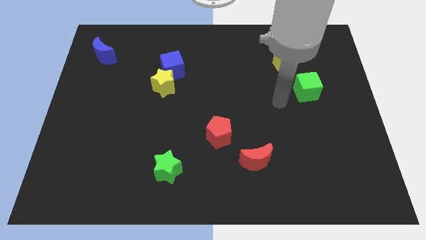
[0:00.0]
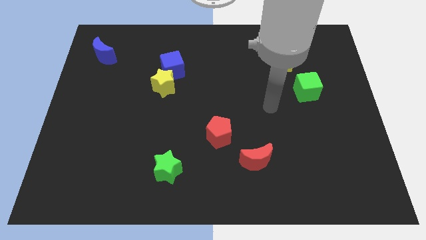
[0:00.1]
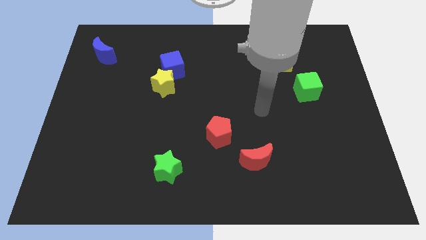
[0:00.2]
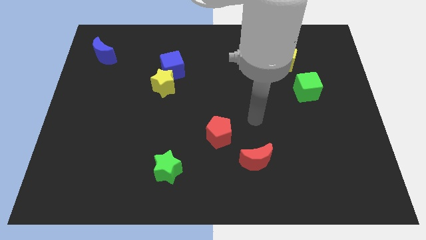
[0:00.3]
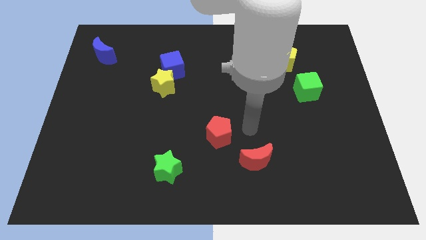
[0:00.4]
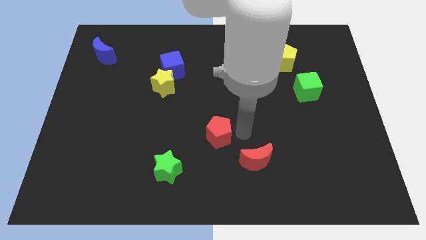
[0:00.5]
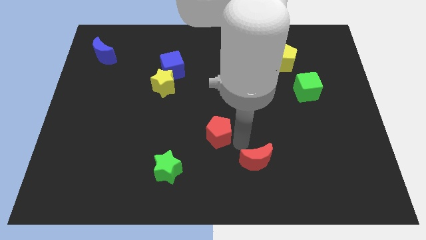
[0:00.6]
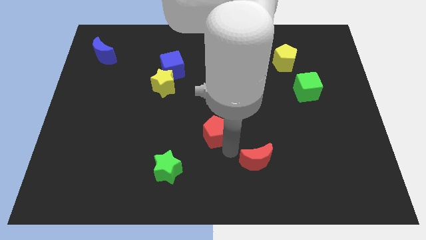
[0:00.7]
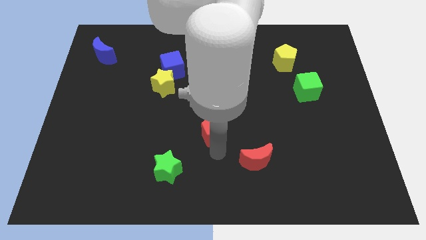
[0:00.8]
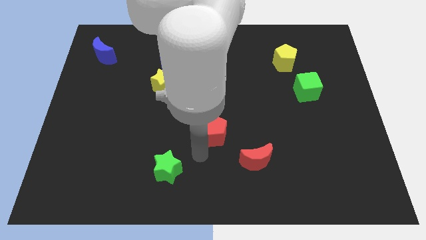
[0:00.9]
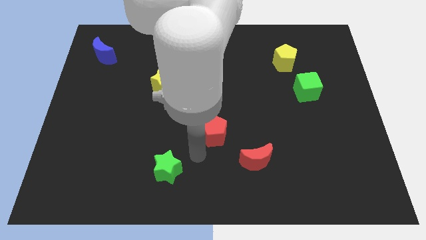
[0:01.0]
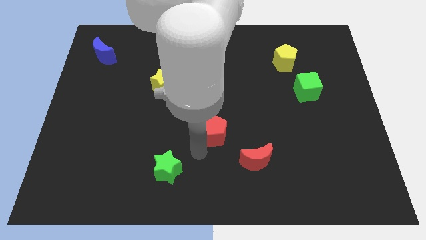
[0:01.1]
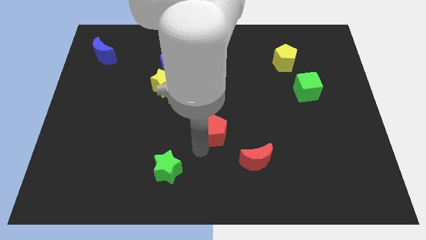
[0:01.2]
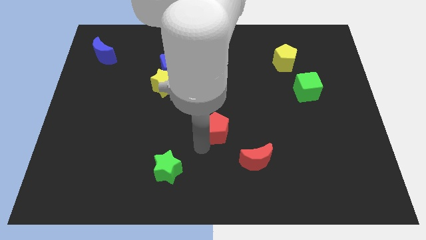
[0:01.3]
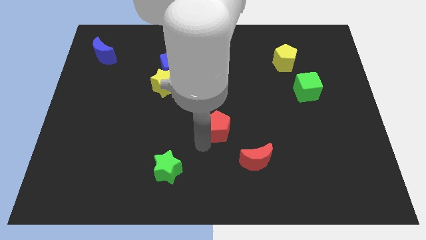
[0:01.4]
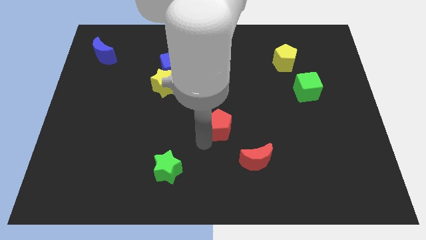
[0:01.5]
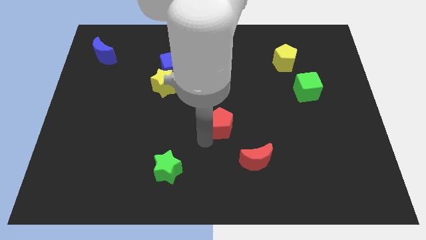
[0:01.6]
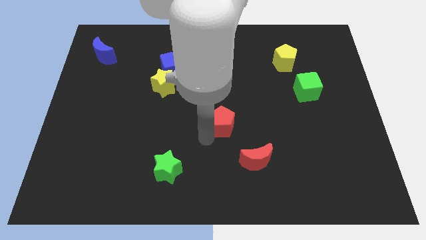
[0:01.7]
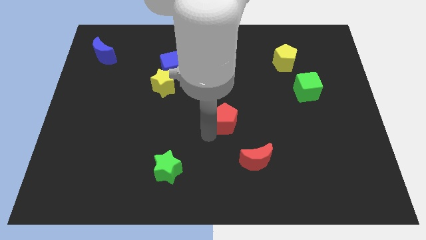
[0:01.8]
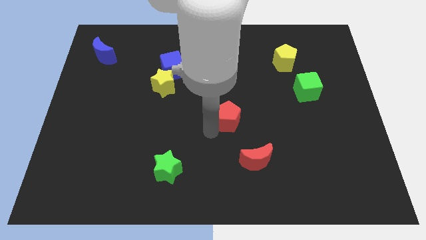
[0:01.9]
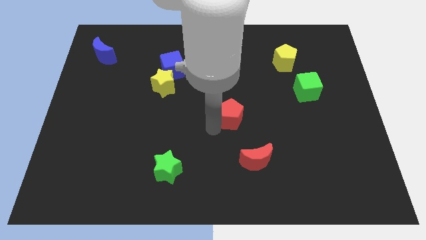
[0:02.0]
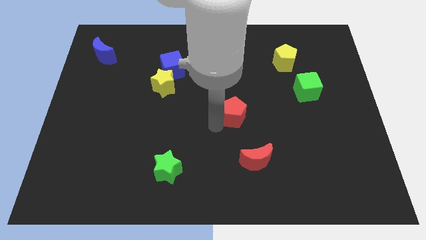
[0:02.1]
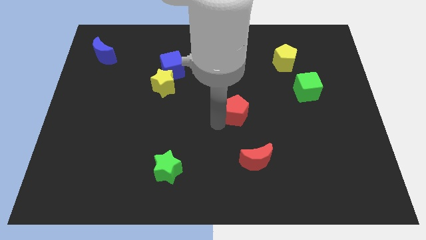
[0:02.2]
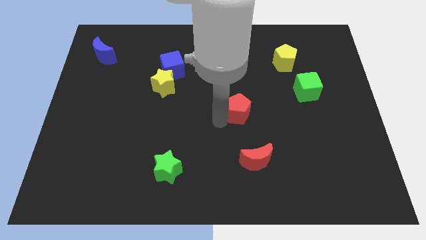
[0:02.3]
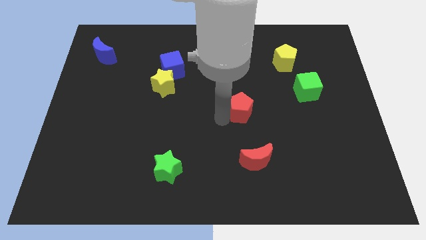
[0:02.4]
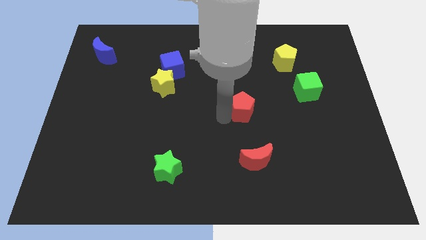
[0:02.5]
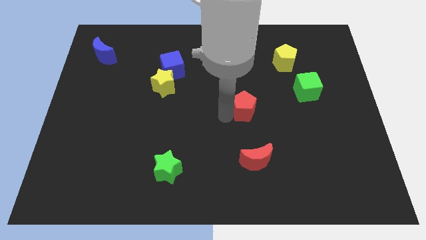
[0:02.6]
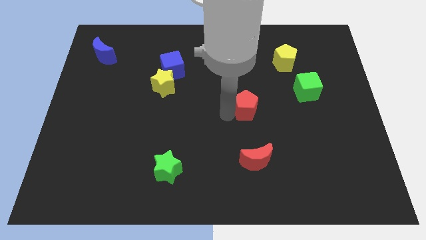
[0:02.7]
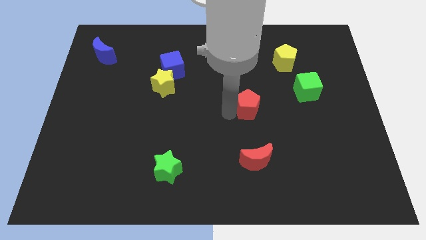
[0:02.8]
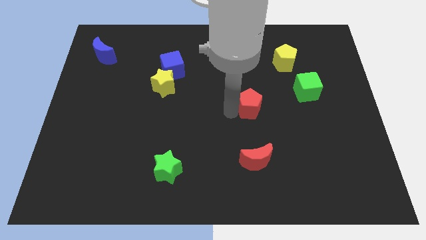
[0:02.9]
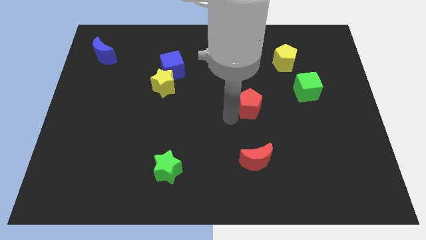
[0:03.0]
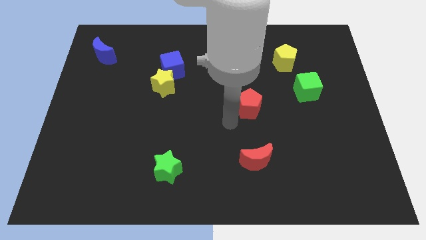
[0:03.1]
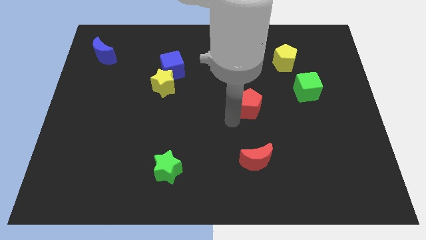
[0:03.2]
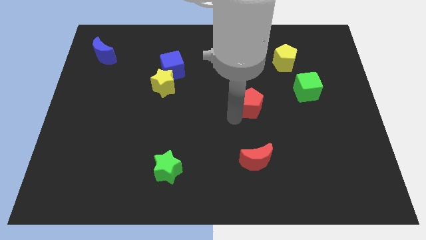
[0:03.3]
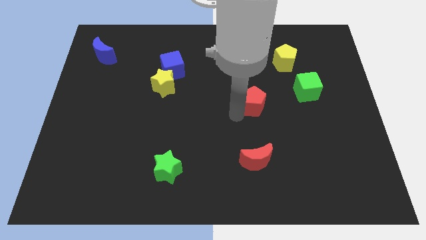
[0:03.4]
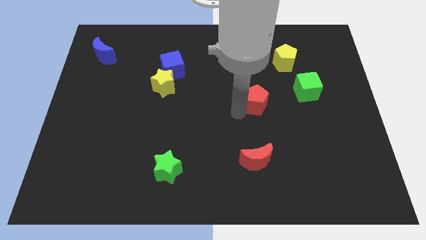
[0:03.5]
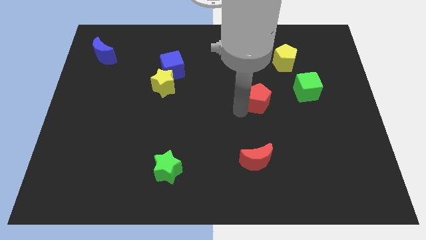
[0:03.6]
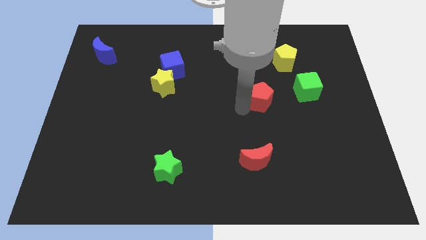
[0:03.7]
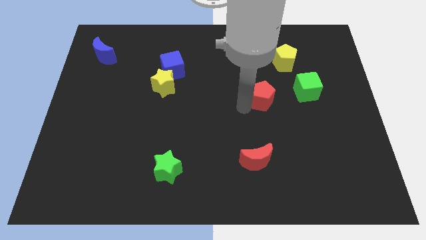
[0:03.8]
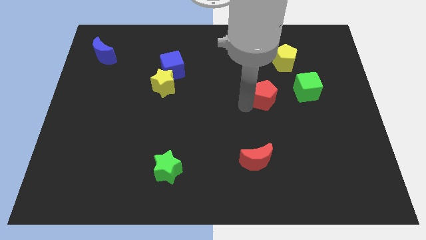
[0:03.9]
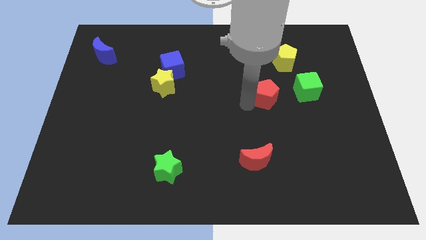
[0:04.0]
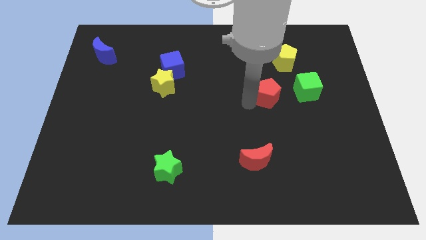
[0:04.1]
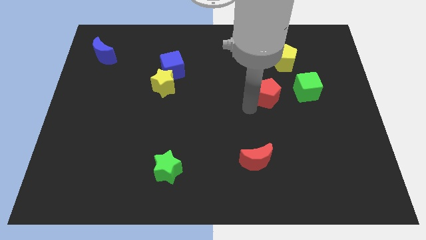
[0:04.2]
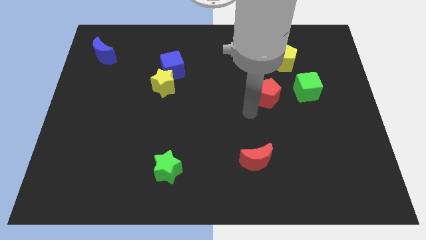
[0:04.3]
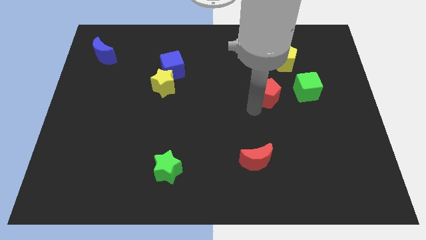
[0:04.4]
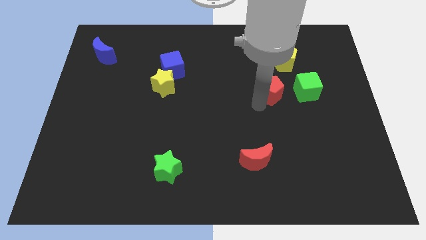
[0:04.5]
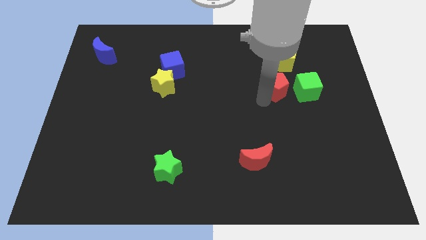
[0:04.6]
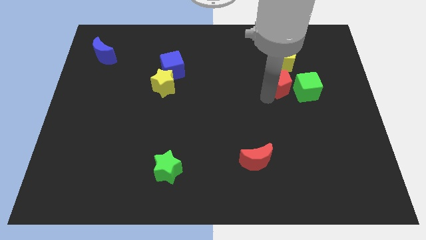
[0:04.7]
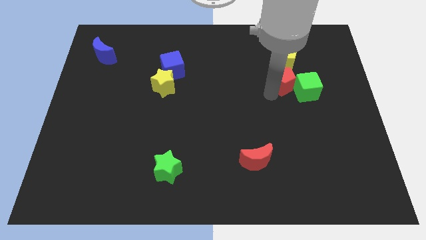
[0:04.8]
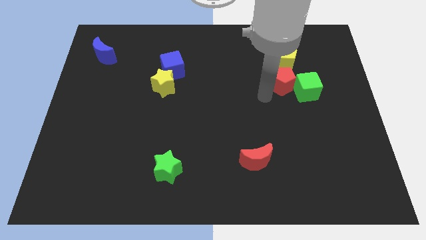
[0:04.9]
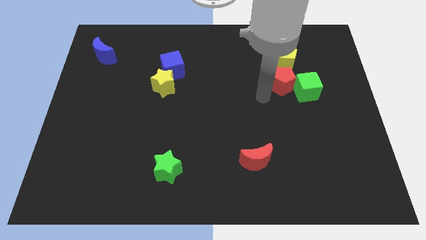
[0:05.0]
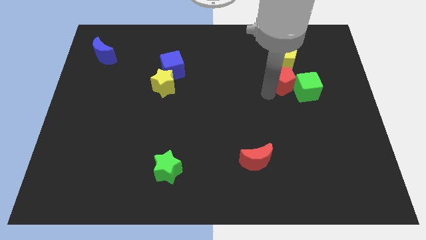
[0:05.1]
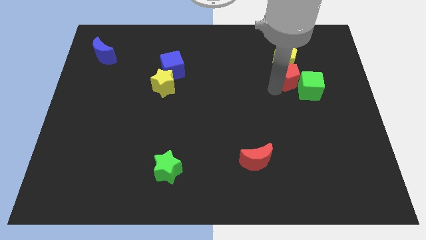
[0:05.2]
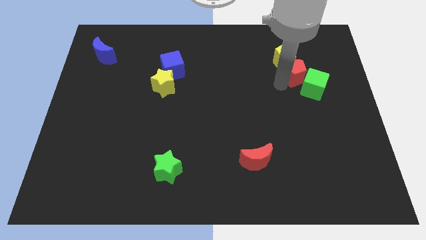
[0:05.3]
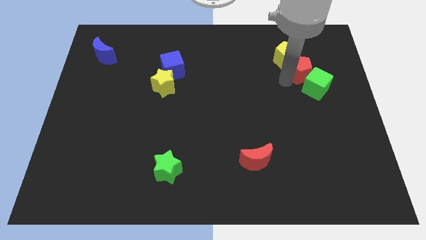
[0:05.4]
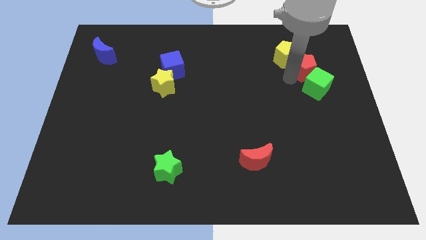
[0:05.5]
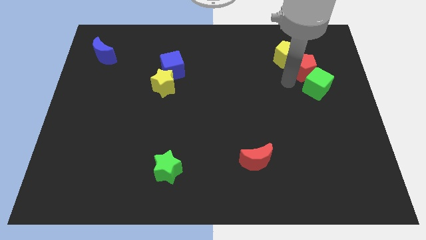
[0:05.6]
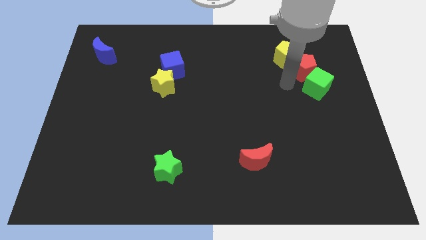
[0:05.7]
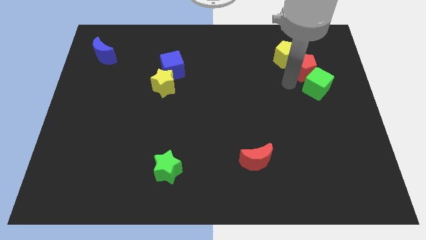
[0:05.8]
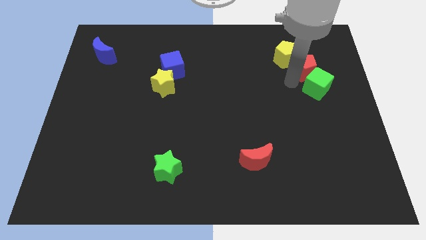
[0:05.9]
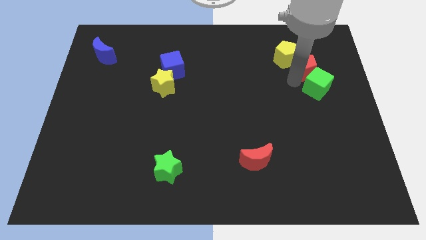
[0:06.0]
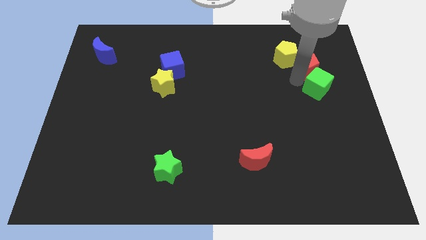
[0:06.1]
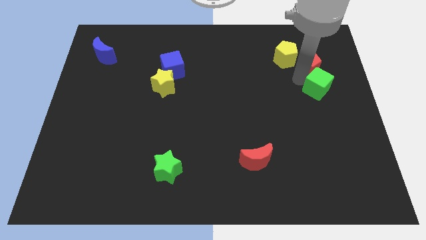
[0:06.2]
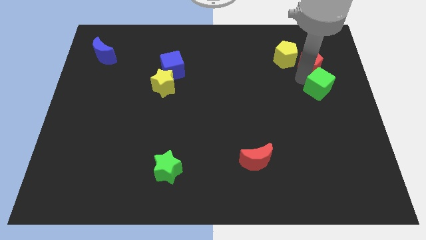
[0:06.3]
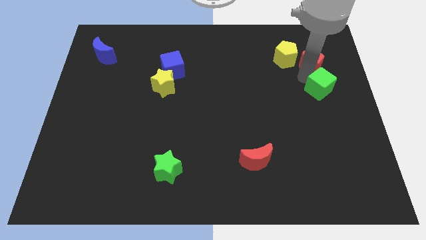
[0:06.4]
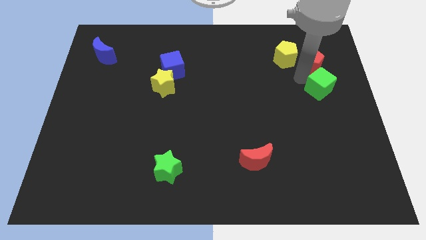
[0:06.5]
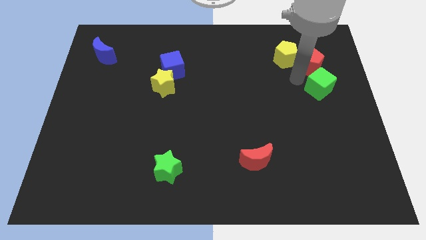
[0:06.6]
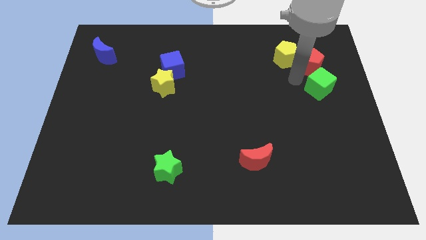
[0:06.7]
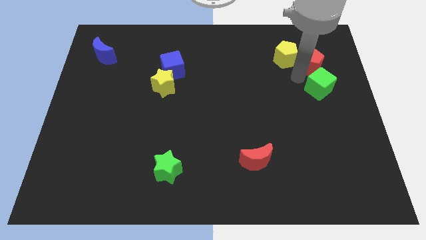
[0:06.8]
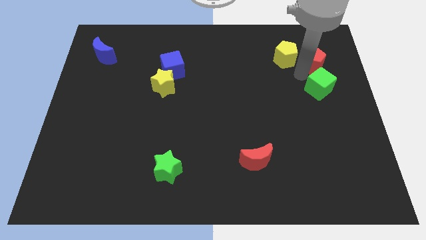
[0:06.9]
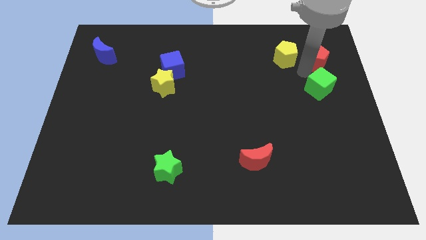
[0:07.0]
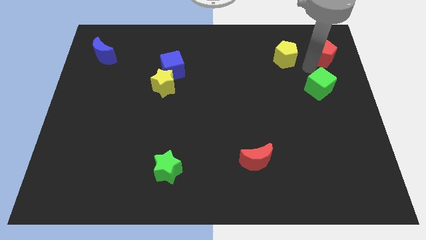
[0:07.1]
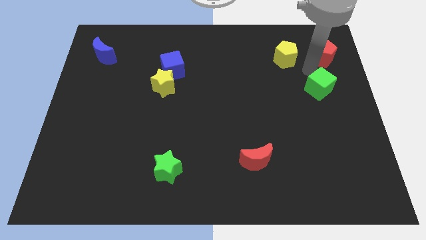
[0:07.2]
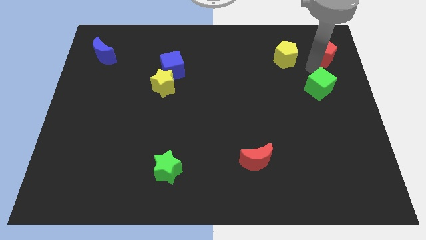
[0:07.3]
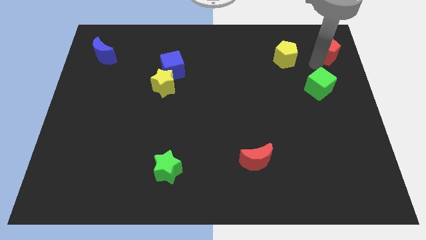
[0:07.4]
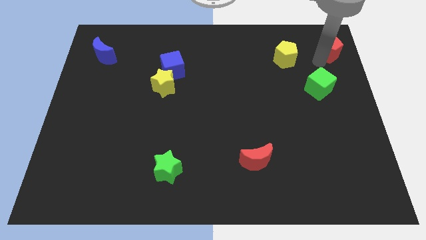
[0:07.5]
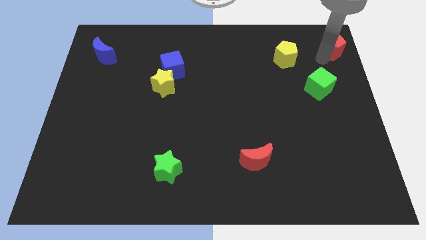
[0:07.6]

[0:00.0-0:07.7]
move the red pentagon to the top right corner
